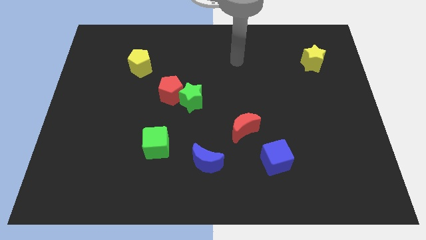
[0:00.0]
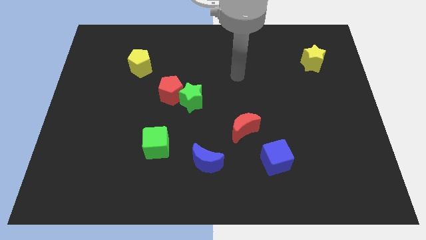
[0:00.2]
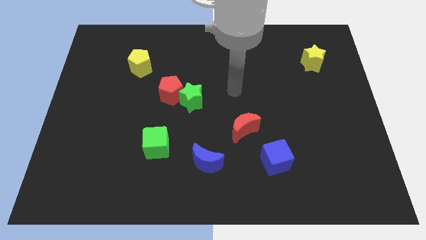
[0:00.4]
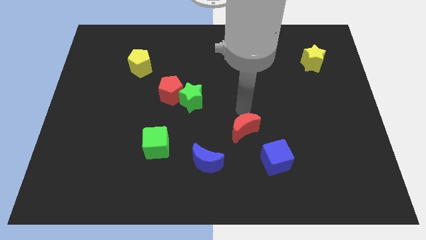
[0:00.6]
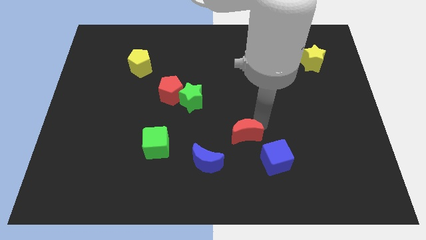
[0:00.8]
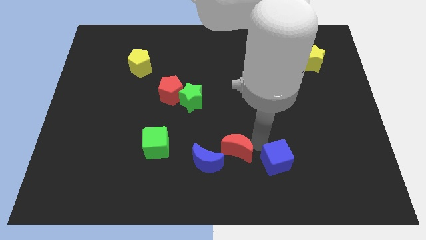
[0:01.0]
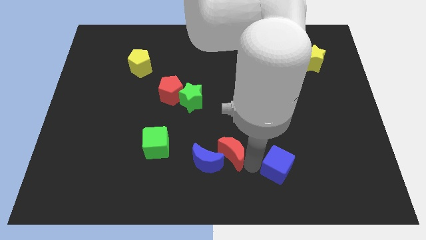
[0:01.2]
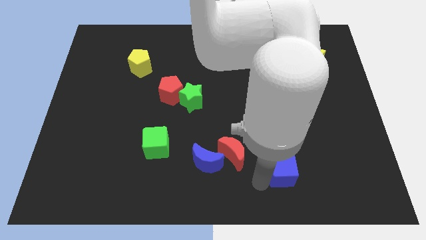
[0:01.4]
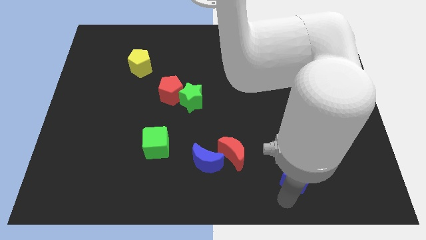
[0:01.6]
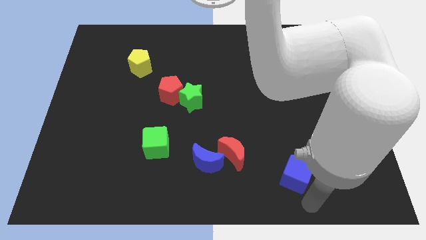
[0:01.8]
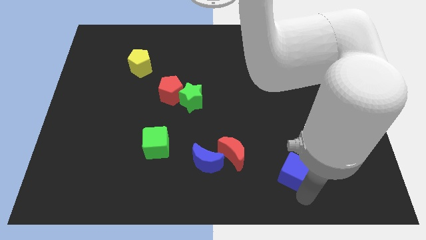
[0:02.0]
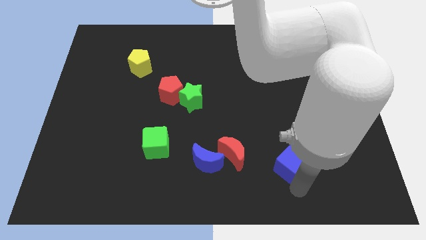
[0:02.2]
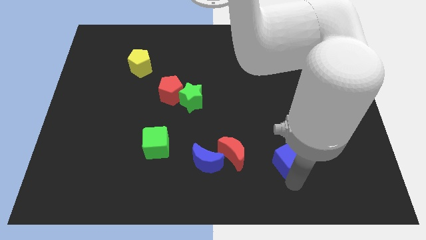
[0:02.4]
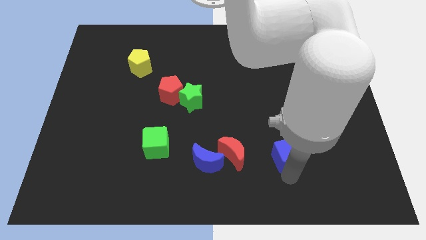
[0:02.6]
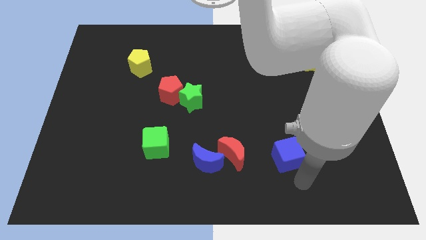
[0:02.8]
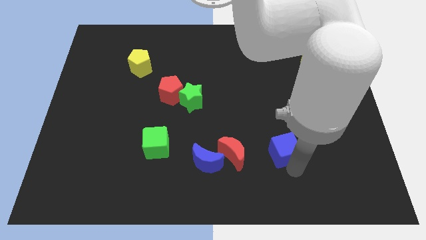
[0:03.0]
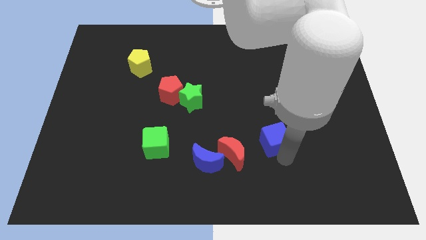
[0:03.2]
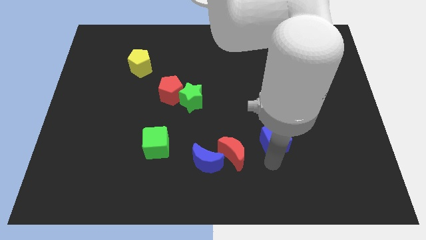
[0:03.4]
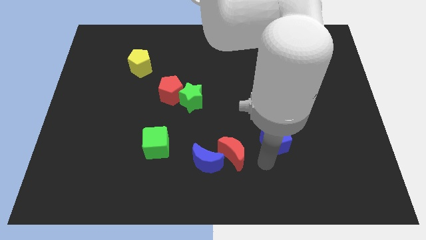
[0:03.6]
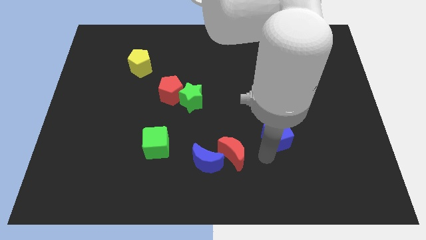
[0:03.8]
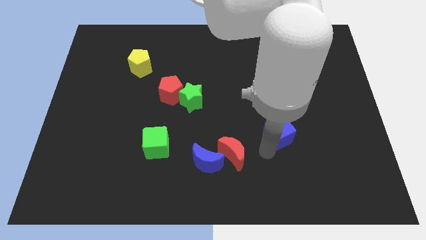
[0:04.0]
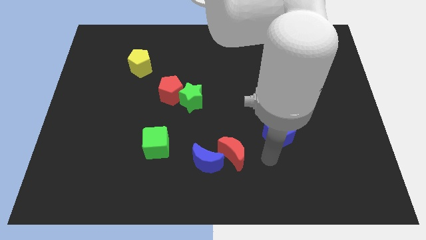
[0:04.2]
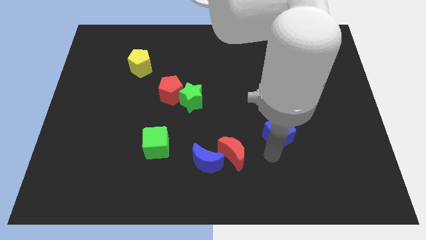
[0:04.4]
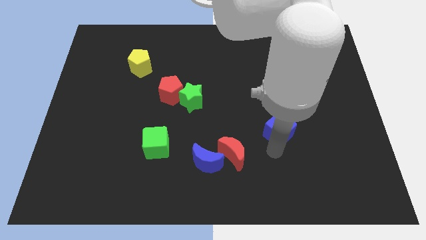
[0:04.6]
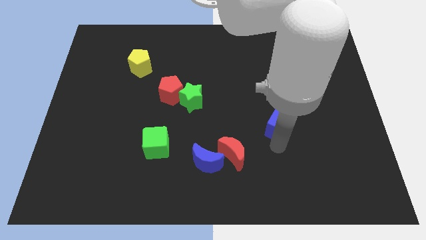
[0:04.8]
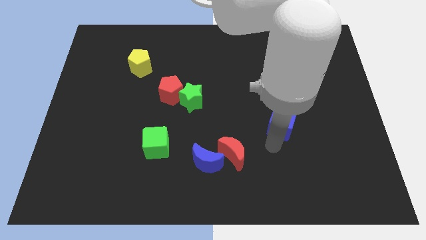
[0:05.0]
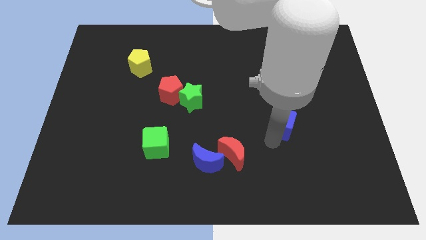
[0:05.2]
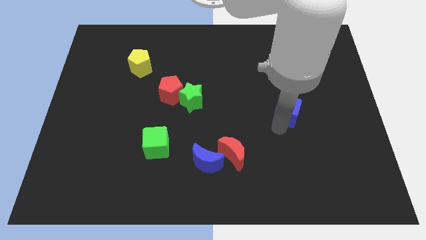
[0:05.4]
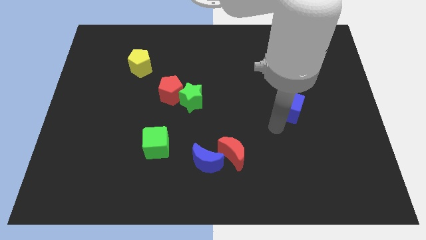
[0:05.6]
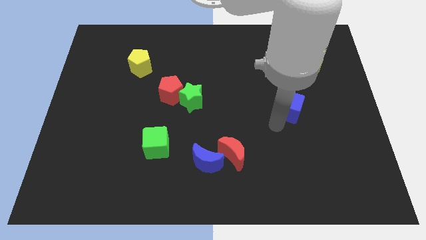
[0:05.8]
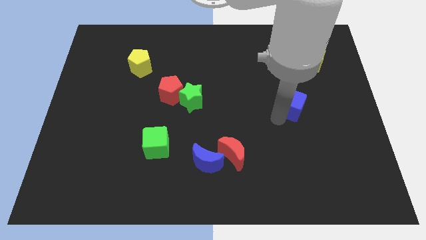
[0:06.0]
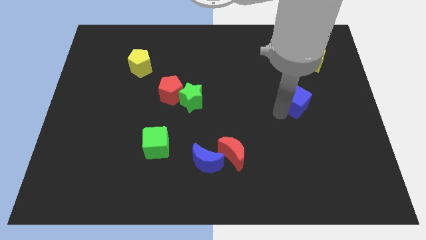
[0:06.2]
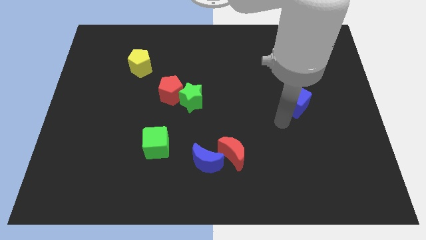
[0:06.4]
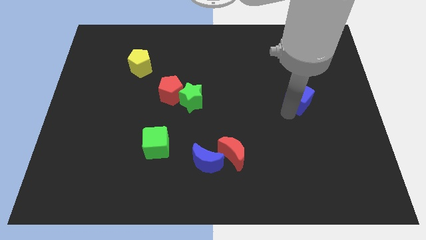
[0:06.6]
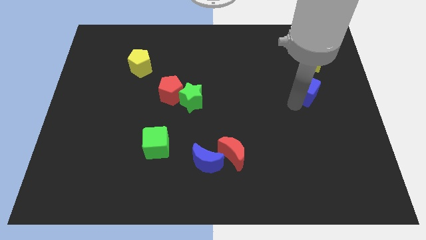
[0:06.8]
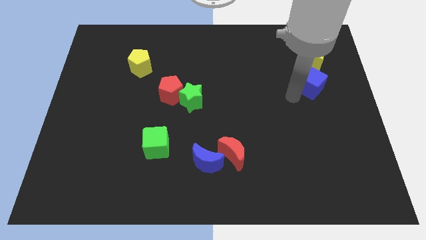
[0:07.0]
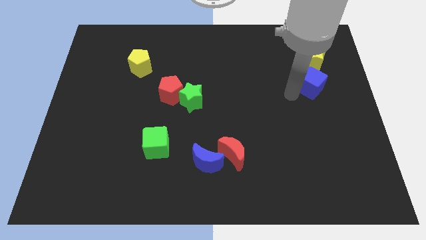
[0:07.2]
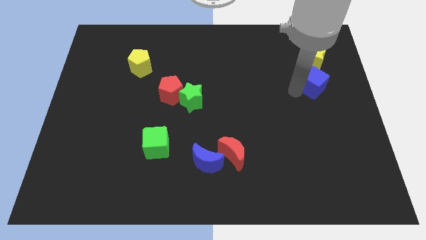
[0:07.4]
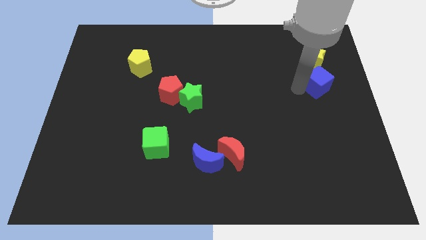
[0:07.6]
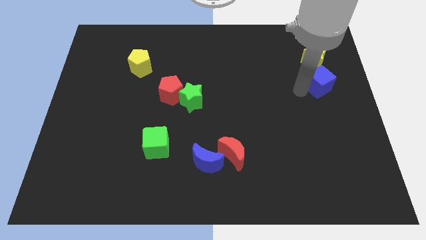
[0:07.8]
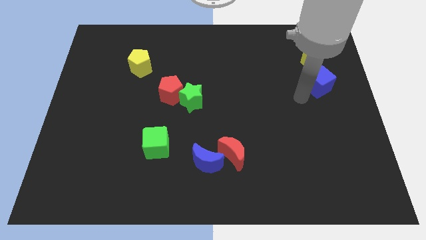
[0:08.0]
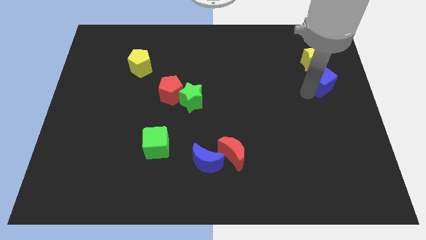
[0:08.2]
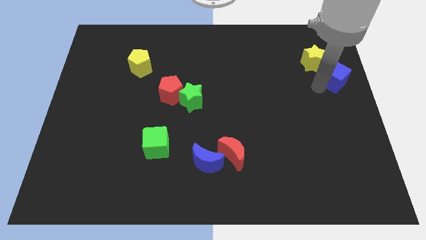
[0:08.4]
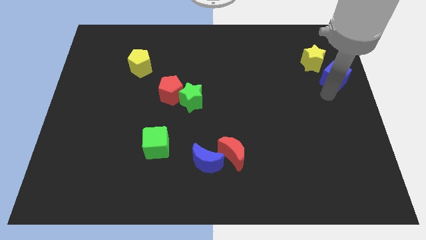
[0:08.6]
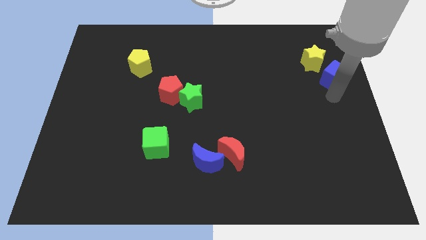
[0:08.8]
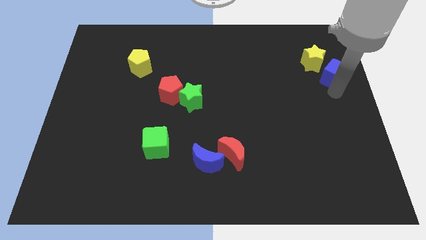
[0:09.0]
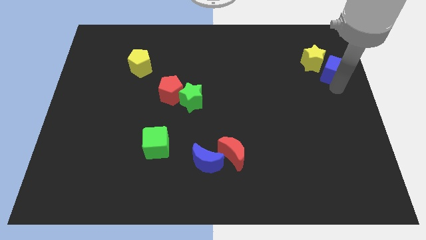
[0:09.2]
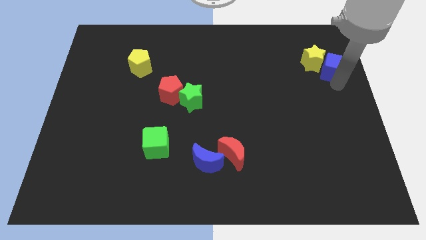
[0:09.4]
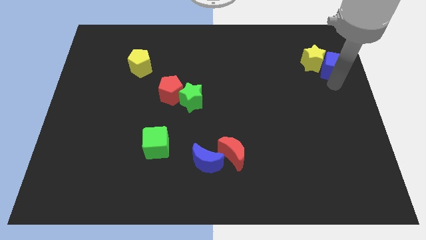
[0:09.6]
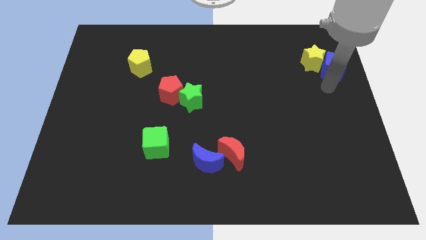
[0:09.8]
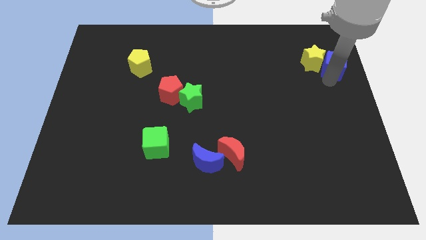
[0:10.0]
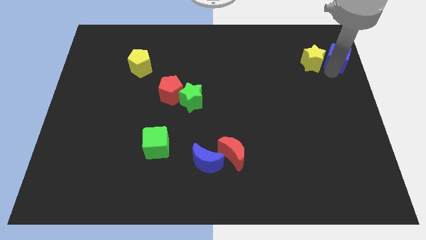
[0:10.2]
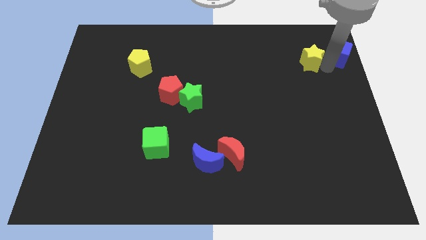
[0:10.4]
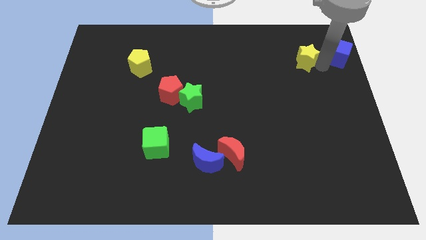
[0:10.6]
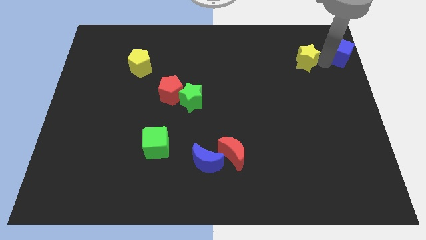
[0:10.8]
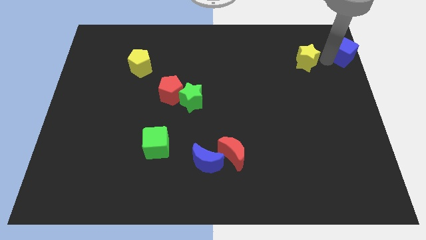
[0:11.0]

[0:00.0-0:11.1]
slide the blue cube to the upper right corner

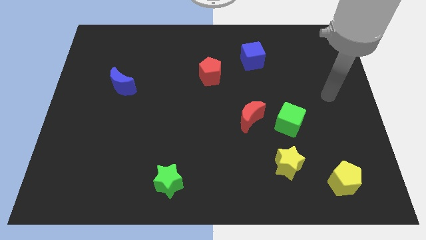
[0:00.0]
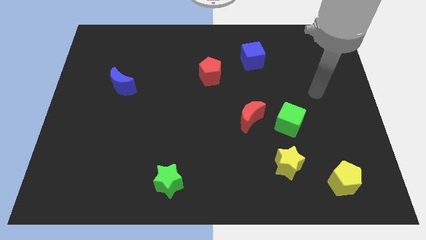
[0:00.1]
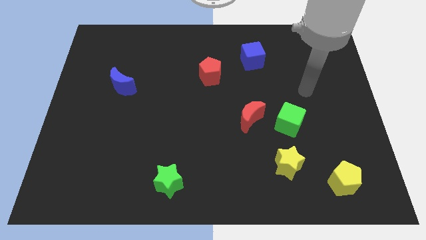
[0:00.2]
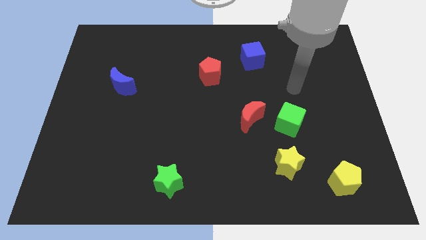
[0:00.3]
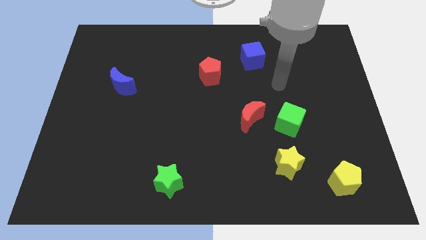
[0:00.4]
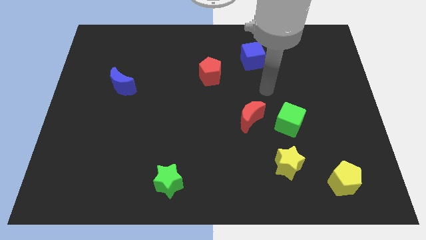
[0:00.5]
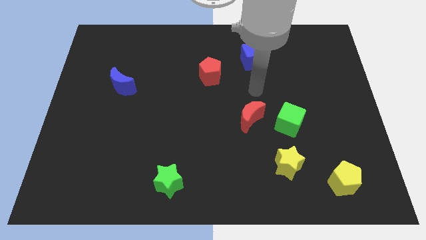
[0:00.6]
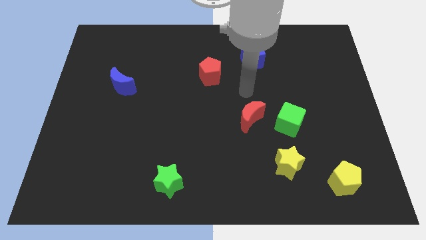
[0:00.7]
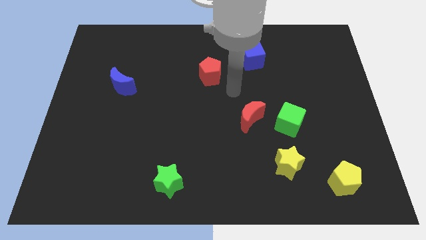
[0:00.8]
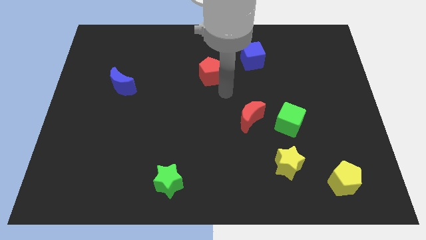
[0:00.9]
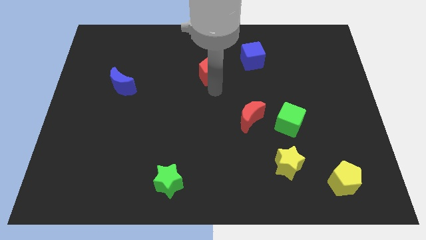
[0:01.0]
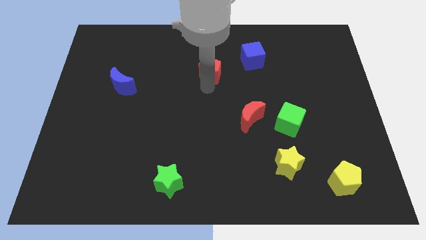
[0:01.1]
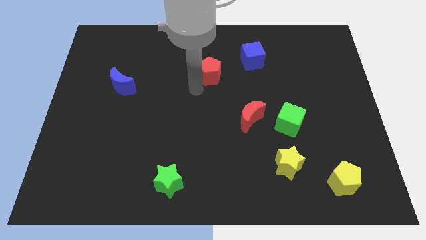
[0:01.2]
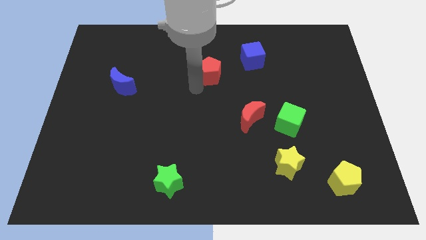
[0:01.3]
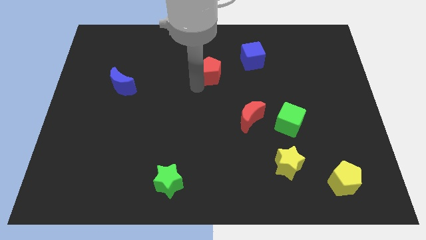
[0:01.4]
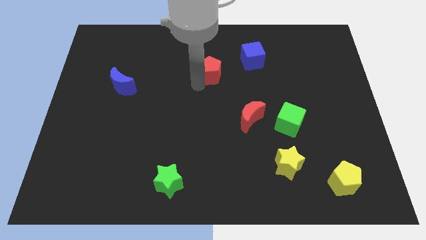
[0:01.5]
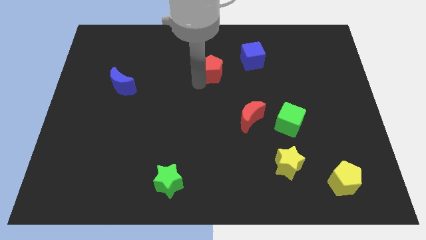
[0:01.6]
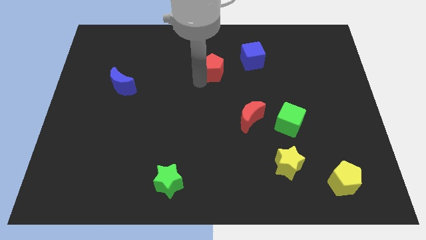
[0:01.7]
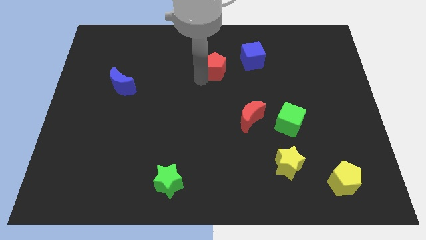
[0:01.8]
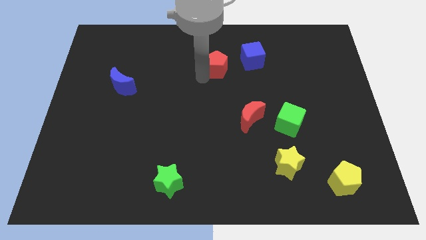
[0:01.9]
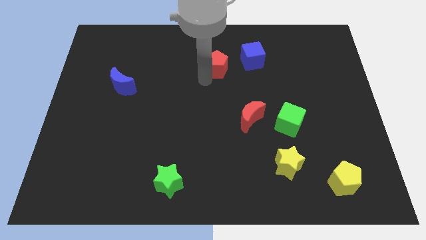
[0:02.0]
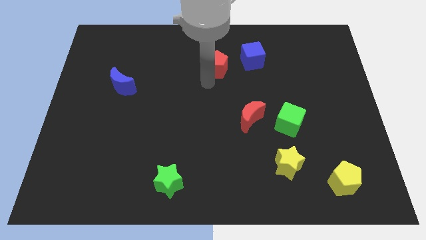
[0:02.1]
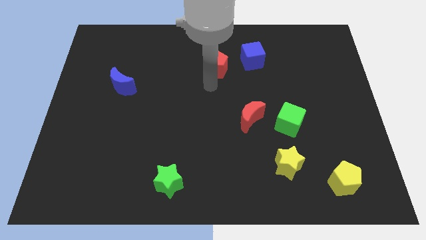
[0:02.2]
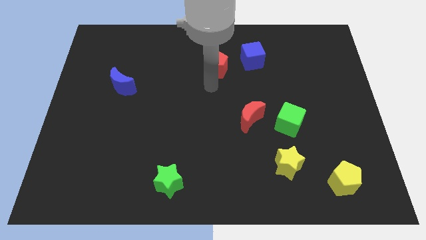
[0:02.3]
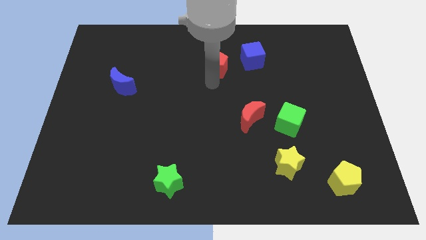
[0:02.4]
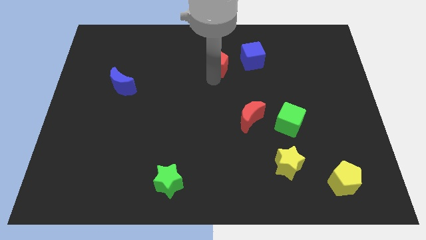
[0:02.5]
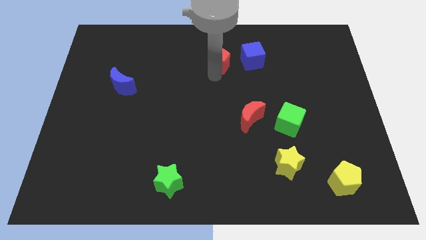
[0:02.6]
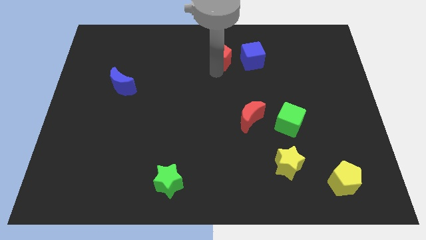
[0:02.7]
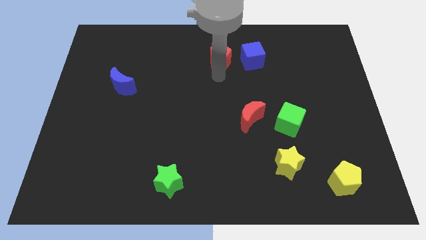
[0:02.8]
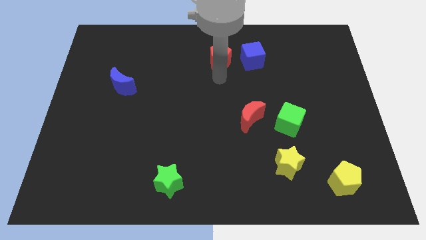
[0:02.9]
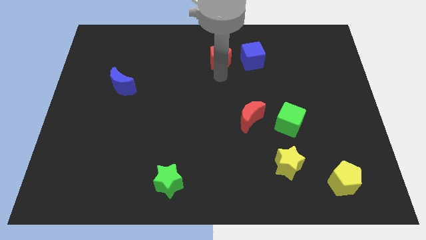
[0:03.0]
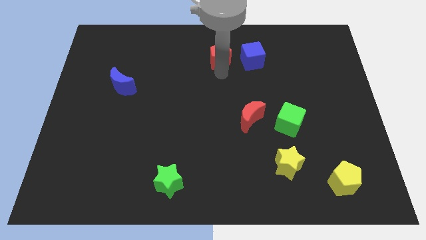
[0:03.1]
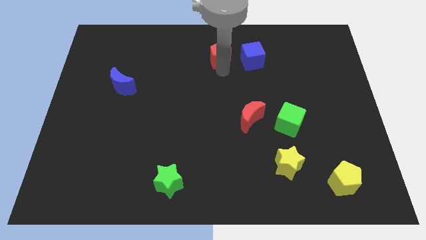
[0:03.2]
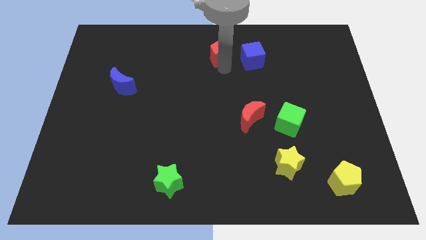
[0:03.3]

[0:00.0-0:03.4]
move the red pentagon to the towards your base
